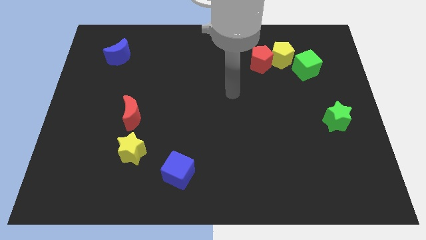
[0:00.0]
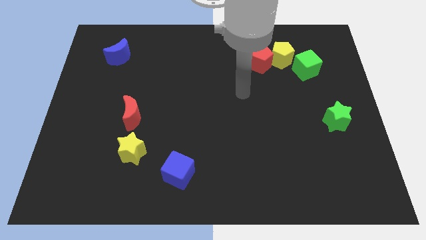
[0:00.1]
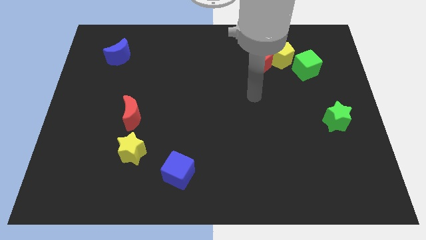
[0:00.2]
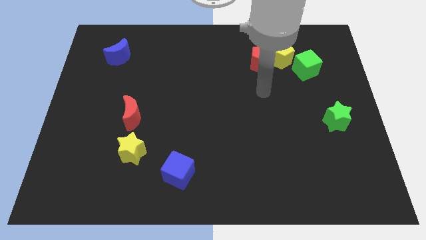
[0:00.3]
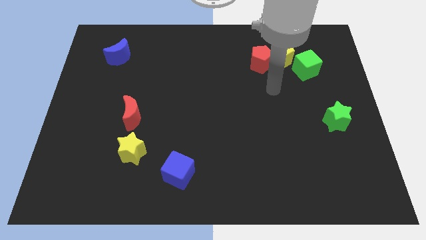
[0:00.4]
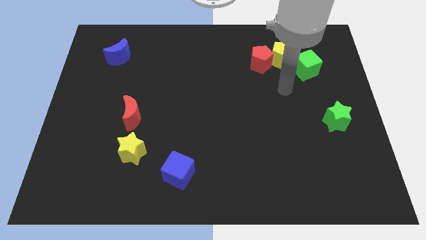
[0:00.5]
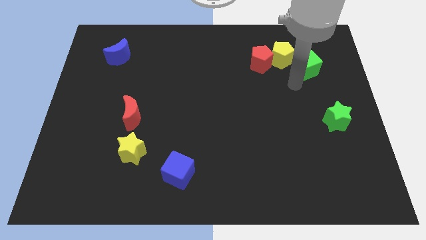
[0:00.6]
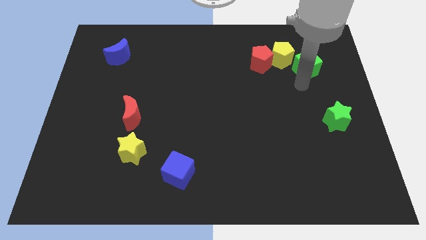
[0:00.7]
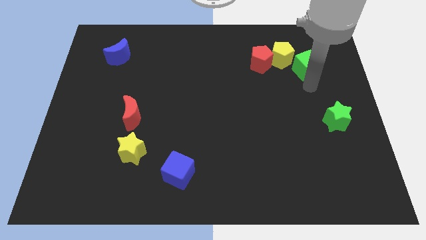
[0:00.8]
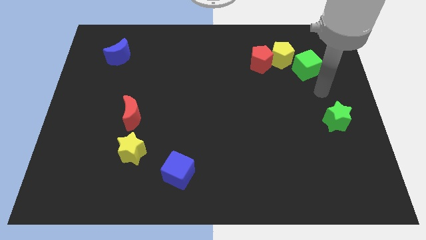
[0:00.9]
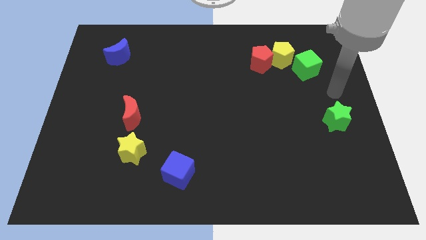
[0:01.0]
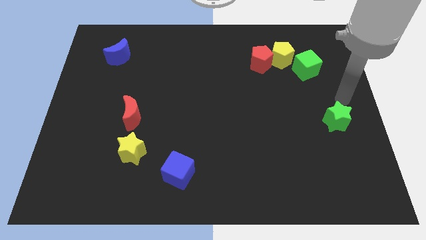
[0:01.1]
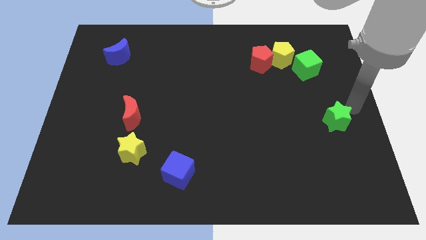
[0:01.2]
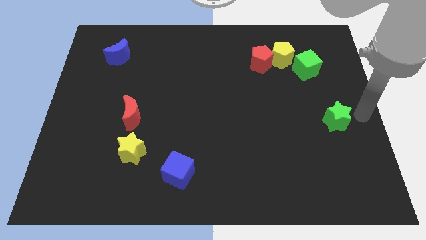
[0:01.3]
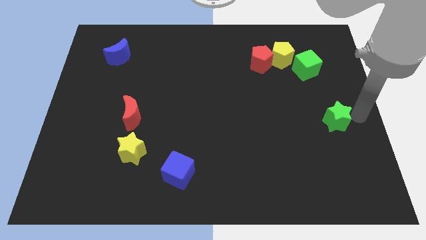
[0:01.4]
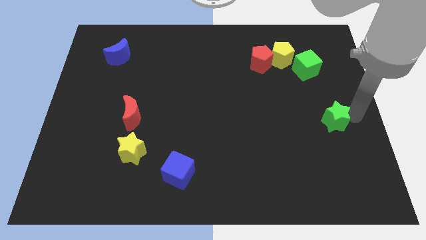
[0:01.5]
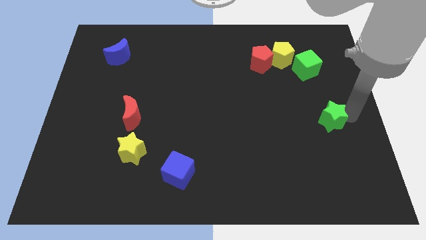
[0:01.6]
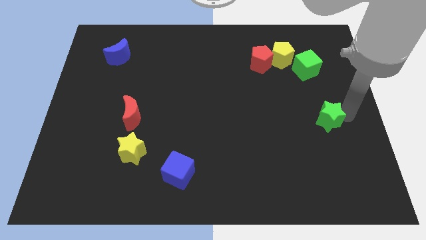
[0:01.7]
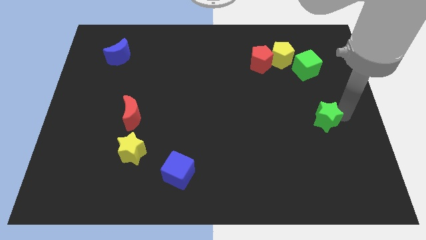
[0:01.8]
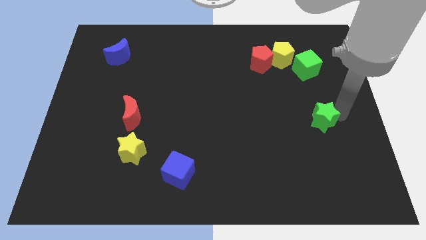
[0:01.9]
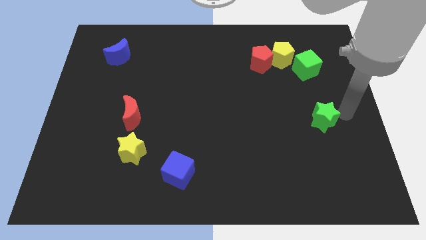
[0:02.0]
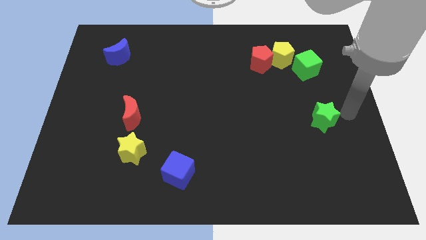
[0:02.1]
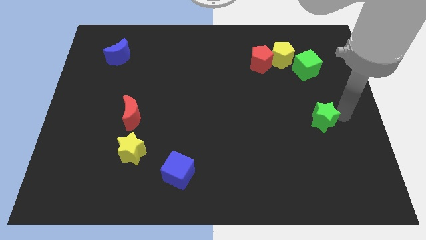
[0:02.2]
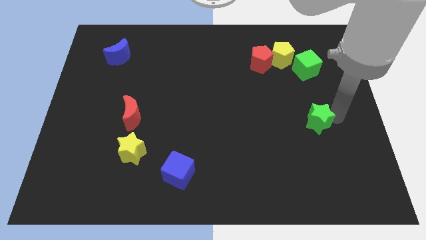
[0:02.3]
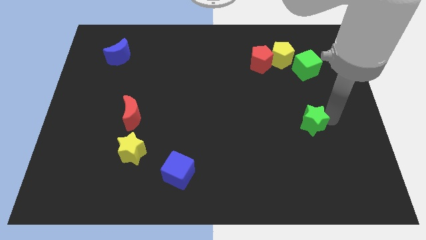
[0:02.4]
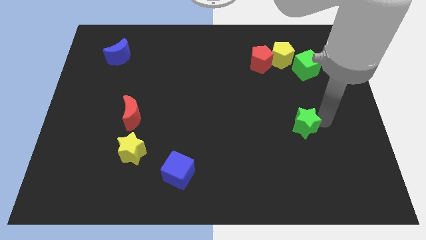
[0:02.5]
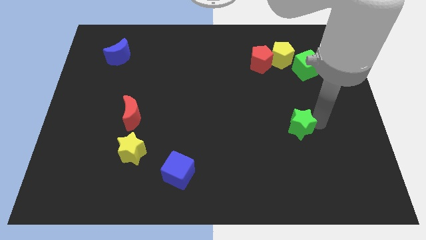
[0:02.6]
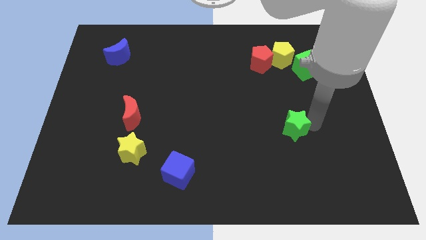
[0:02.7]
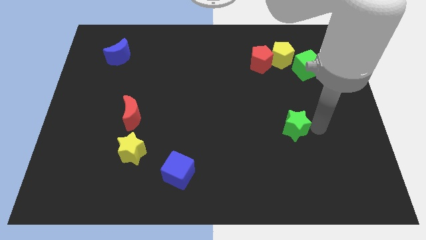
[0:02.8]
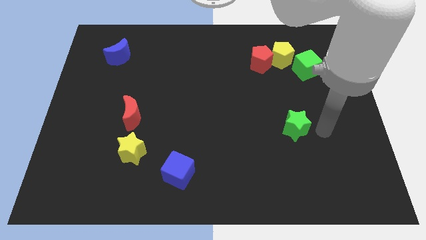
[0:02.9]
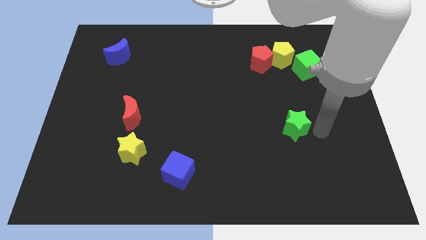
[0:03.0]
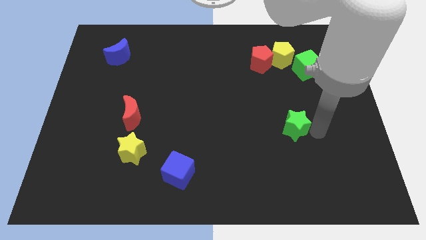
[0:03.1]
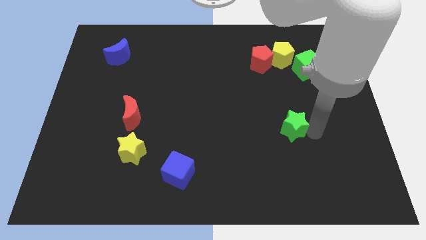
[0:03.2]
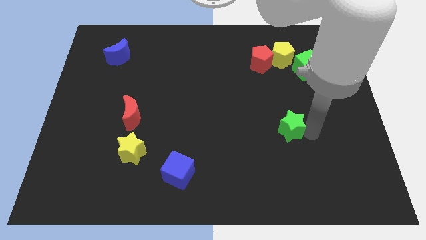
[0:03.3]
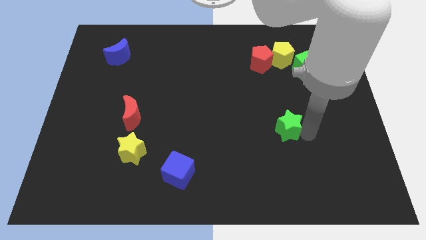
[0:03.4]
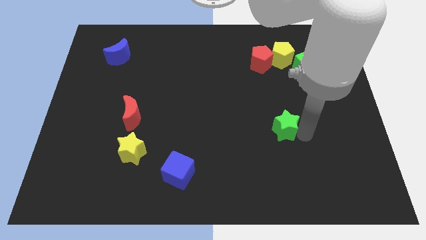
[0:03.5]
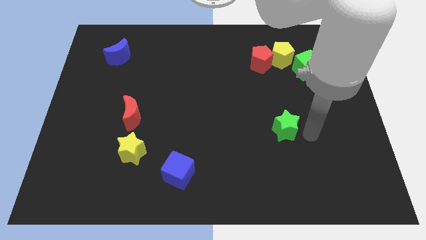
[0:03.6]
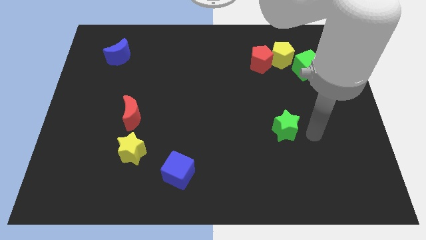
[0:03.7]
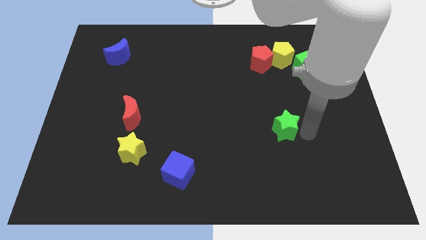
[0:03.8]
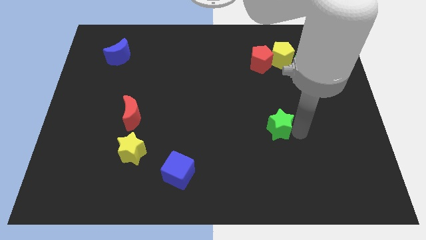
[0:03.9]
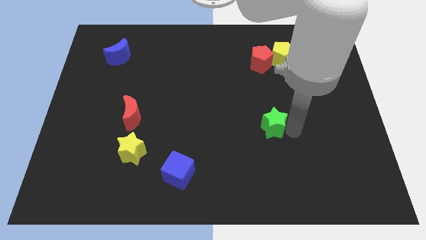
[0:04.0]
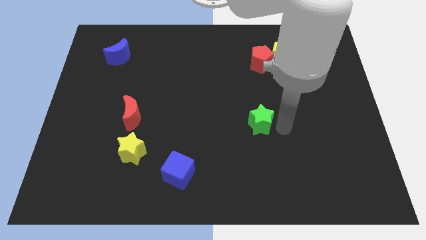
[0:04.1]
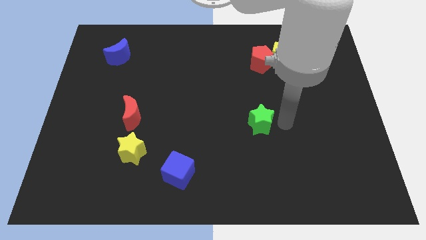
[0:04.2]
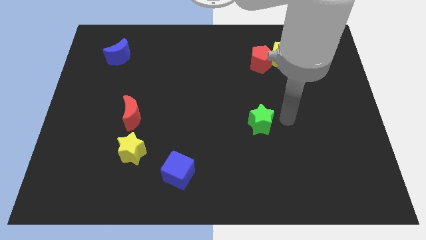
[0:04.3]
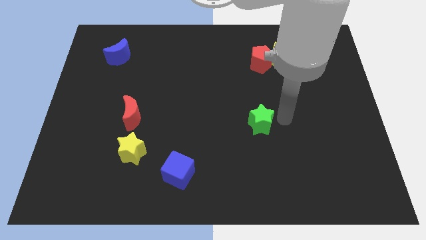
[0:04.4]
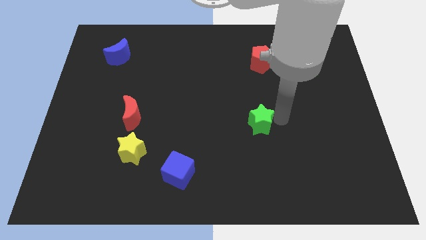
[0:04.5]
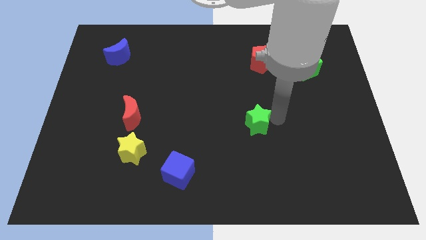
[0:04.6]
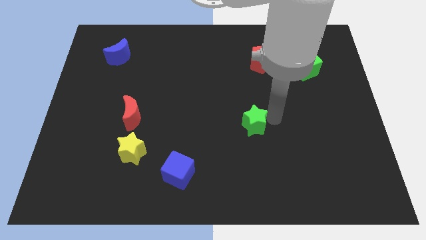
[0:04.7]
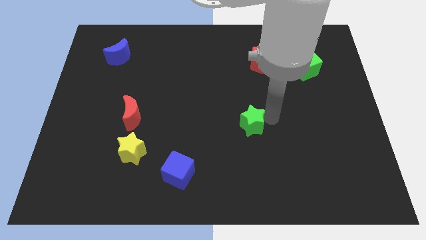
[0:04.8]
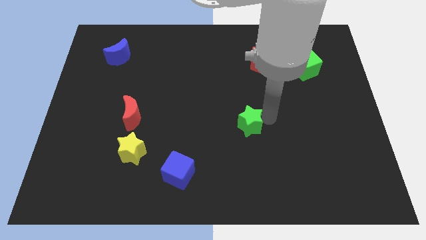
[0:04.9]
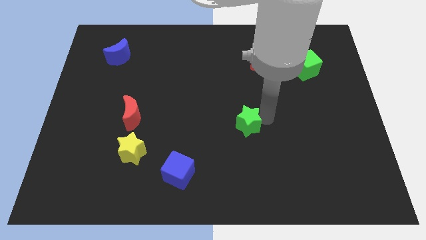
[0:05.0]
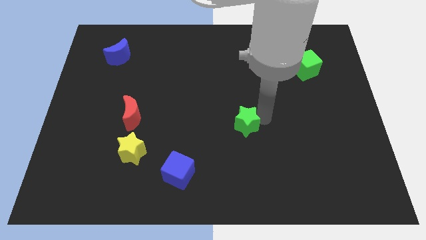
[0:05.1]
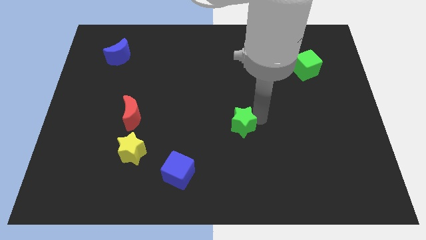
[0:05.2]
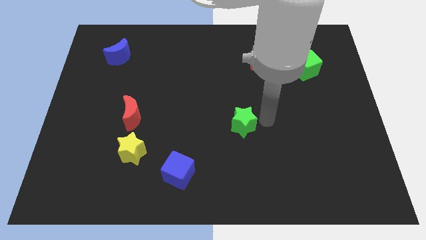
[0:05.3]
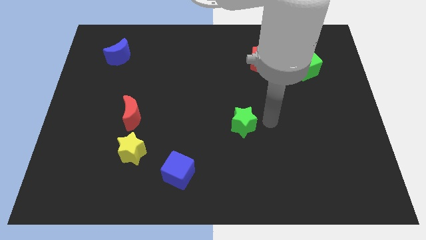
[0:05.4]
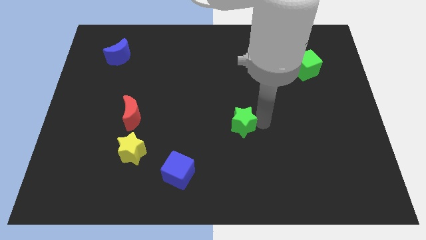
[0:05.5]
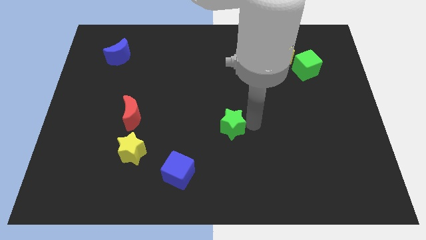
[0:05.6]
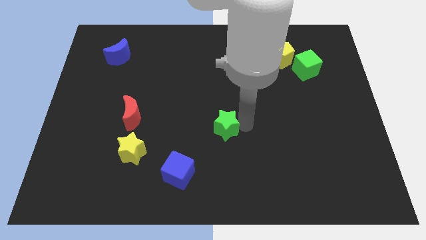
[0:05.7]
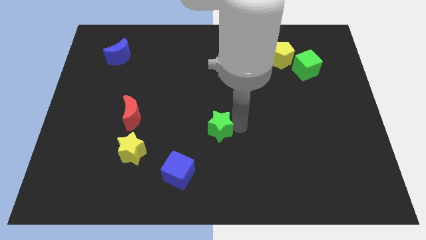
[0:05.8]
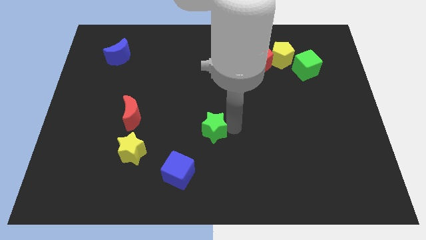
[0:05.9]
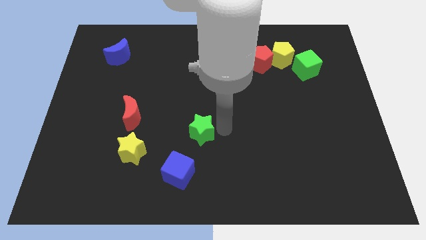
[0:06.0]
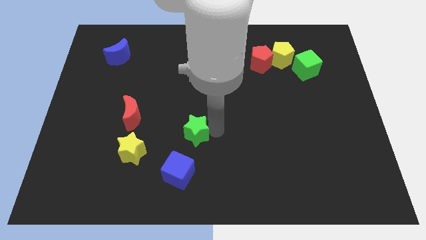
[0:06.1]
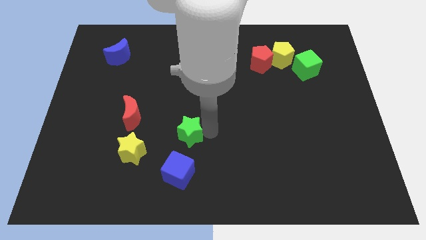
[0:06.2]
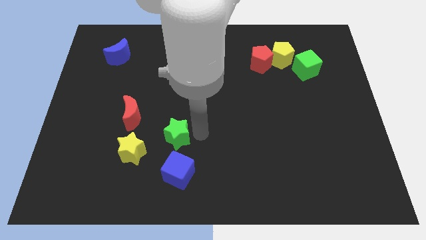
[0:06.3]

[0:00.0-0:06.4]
move the green star to the bottom right of the red moon

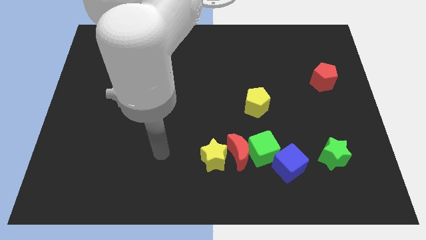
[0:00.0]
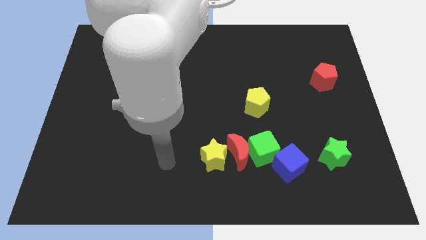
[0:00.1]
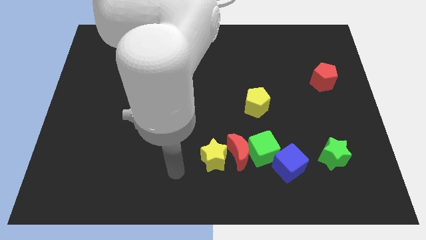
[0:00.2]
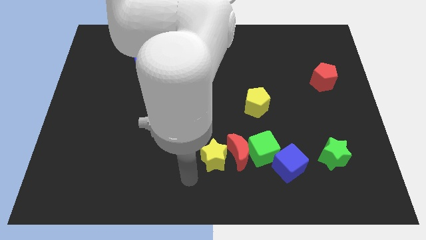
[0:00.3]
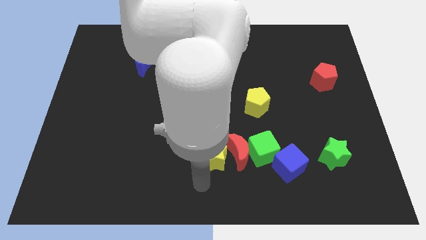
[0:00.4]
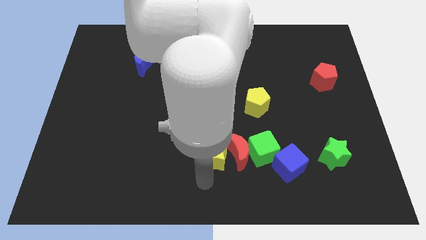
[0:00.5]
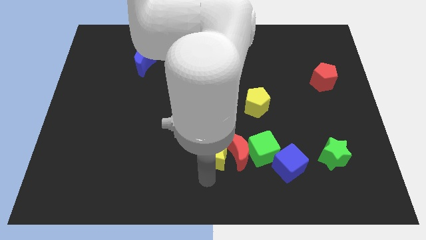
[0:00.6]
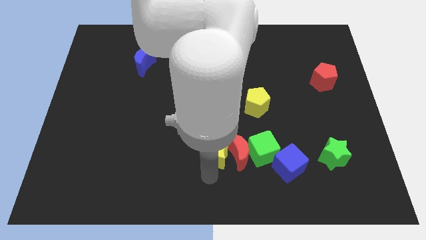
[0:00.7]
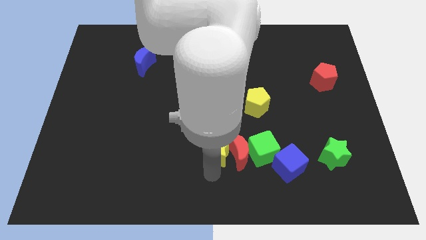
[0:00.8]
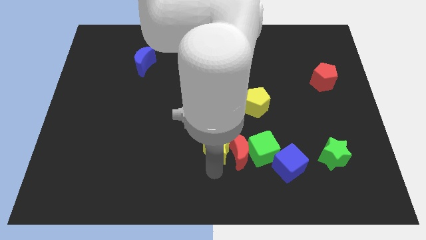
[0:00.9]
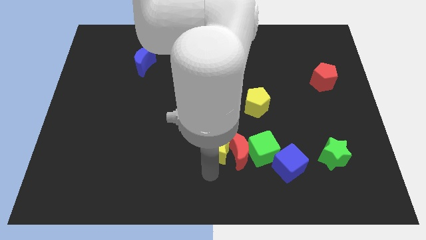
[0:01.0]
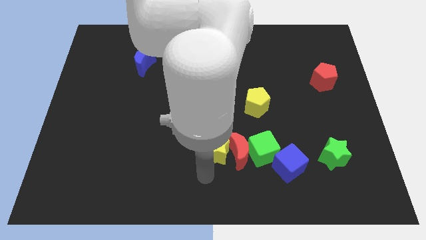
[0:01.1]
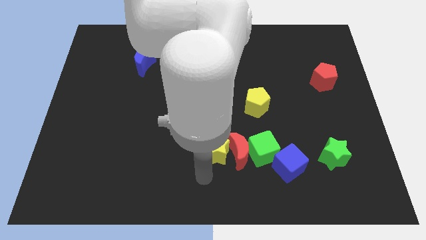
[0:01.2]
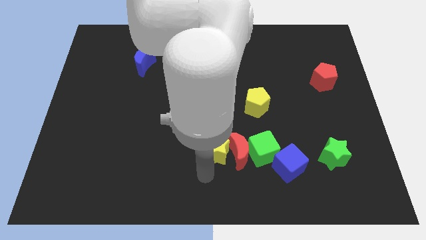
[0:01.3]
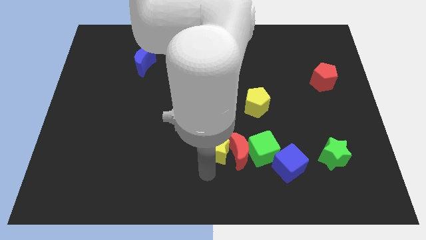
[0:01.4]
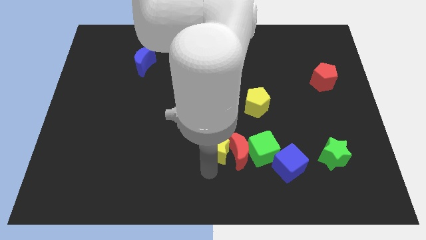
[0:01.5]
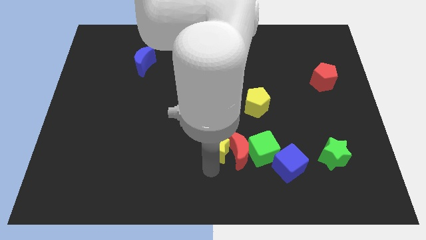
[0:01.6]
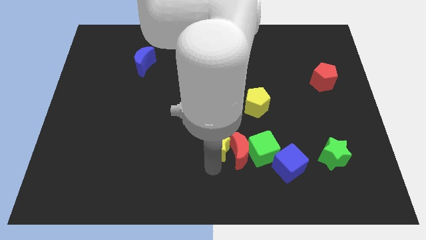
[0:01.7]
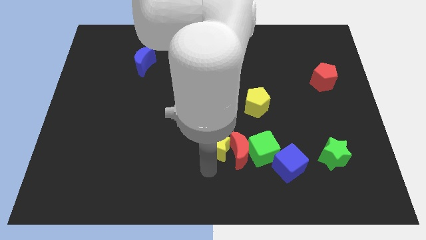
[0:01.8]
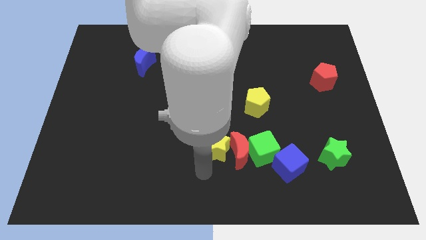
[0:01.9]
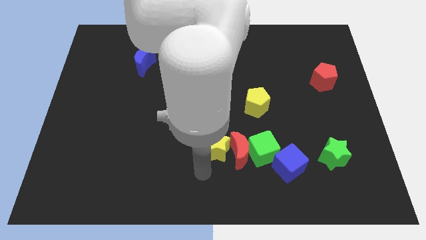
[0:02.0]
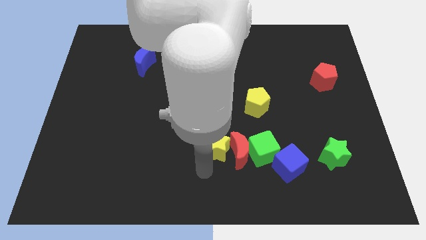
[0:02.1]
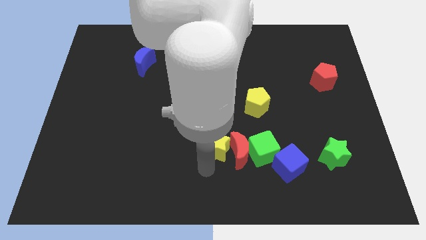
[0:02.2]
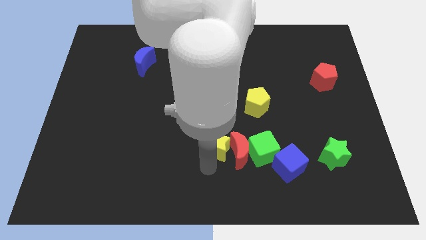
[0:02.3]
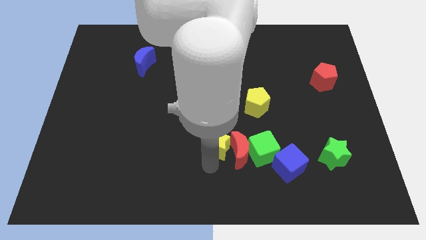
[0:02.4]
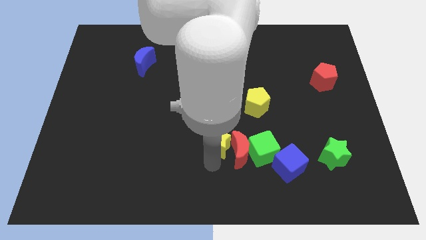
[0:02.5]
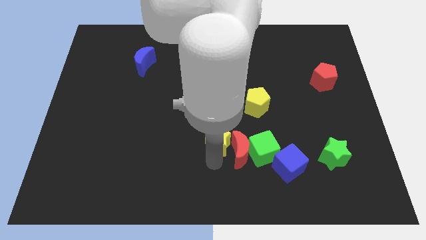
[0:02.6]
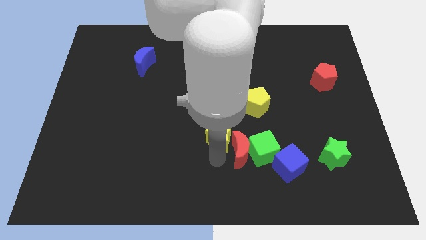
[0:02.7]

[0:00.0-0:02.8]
slide the yellow star to the top side of the red moon
